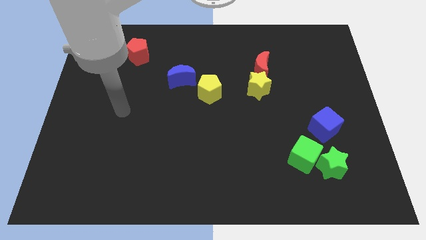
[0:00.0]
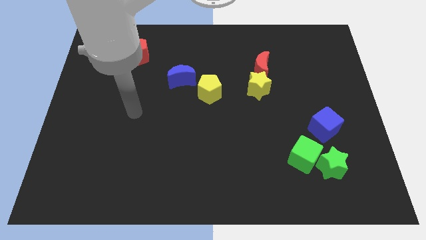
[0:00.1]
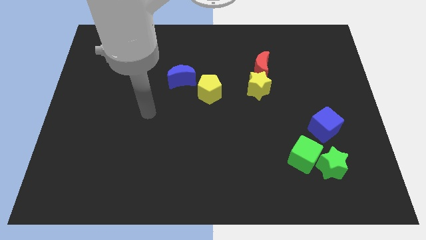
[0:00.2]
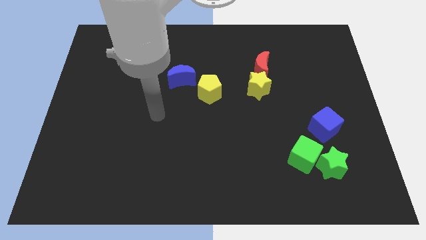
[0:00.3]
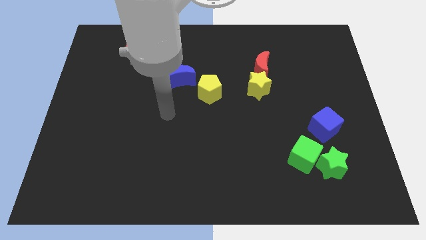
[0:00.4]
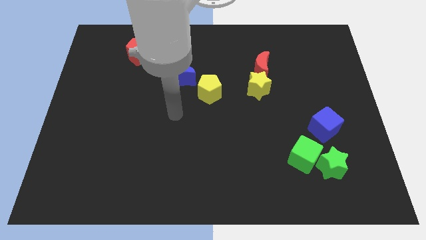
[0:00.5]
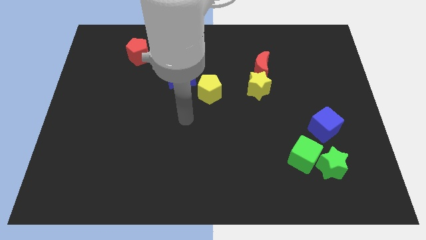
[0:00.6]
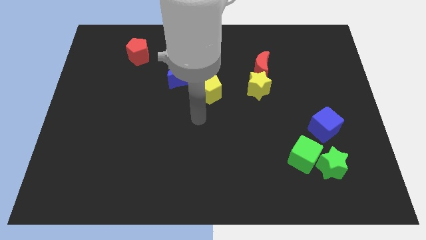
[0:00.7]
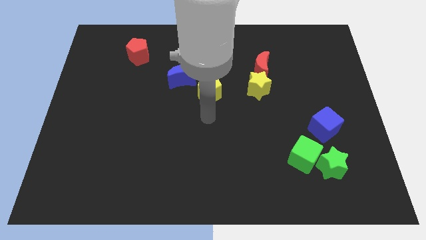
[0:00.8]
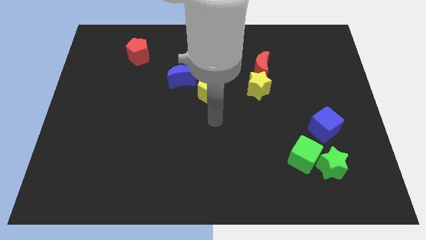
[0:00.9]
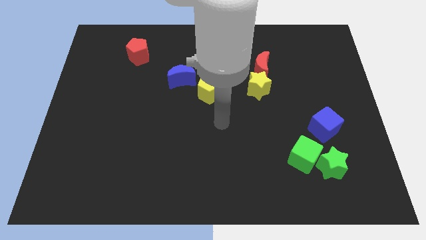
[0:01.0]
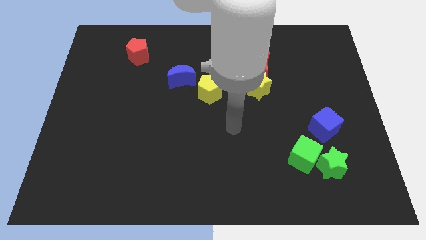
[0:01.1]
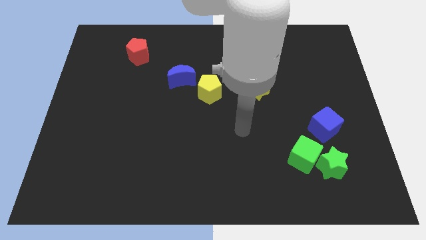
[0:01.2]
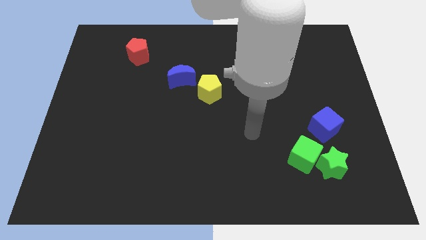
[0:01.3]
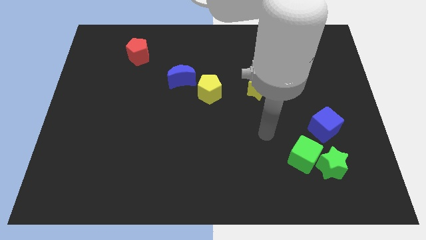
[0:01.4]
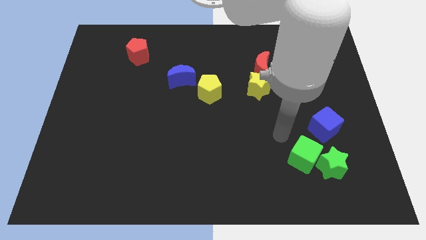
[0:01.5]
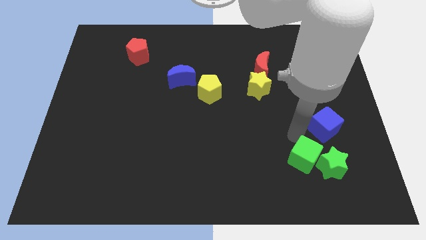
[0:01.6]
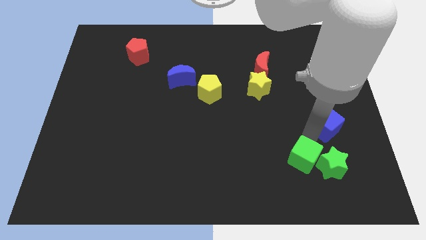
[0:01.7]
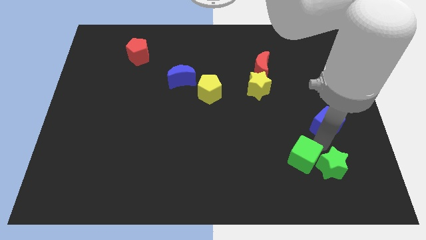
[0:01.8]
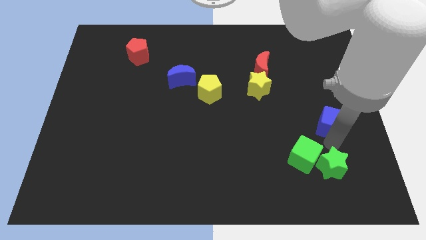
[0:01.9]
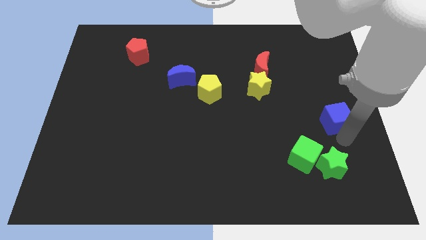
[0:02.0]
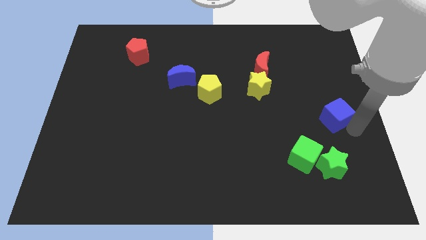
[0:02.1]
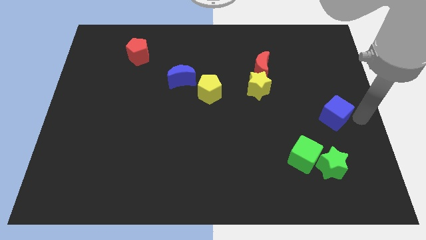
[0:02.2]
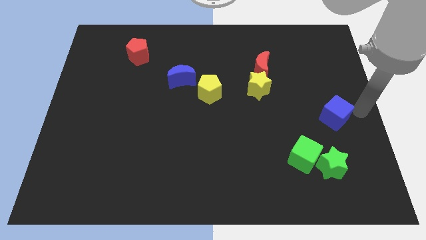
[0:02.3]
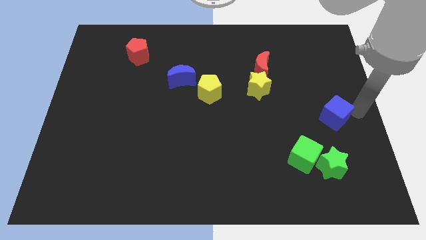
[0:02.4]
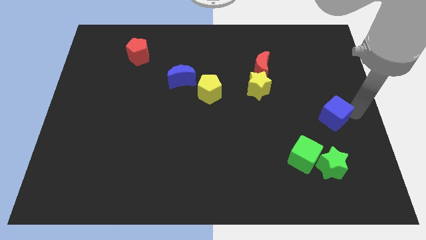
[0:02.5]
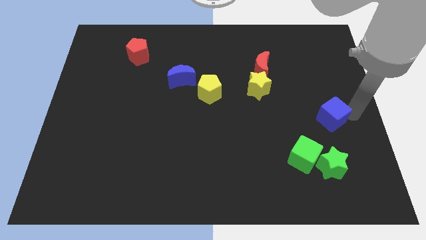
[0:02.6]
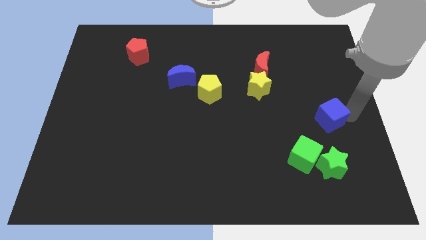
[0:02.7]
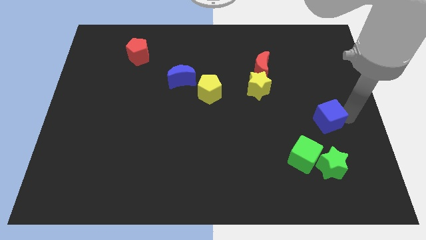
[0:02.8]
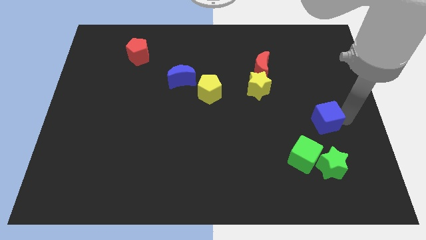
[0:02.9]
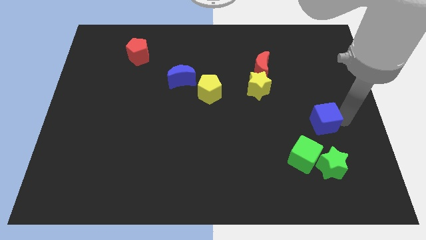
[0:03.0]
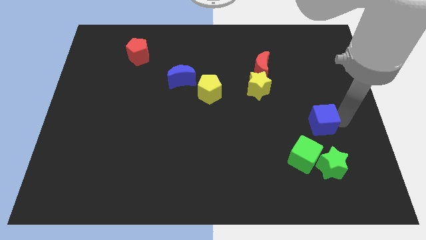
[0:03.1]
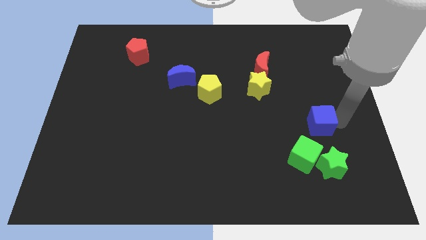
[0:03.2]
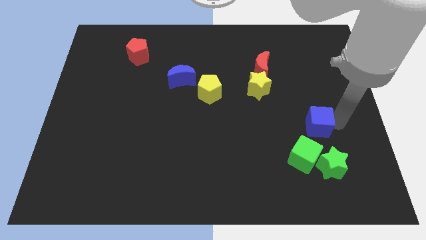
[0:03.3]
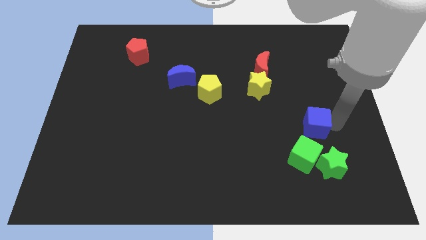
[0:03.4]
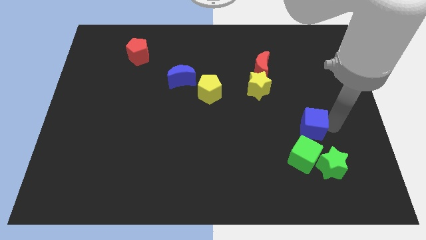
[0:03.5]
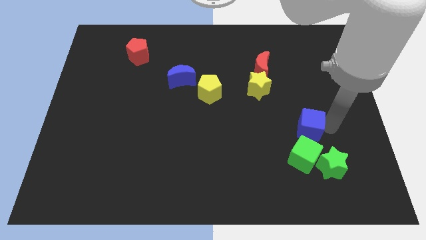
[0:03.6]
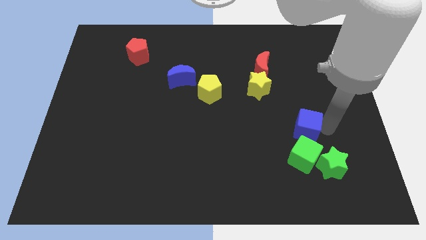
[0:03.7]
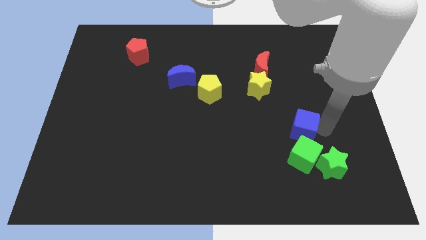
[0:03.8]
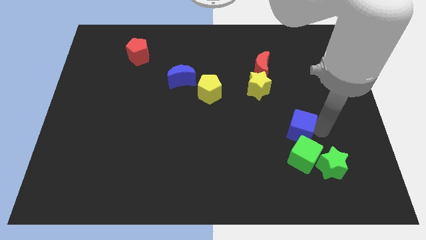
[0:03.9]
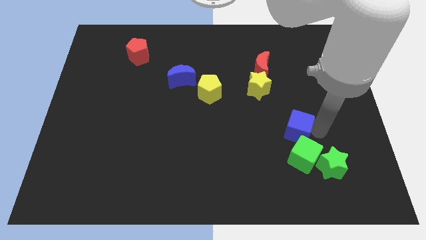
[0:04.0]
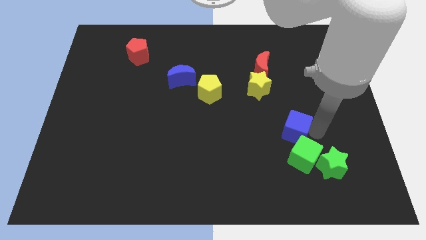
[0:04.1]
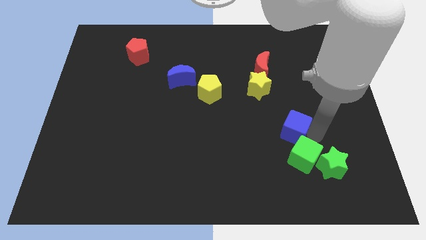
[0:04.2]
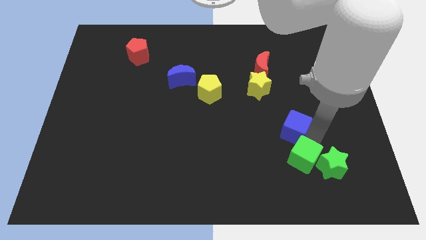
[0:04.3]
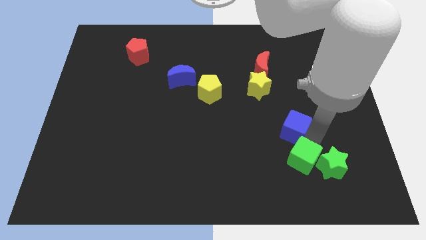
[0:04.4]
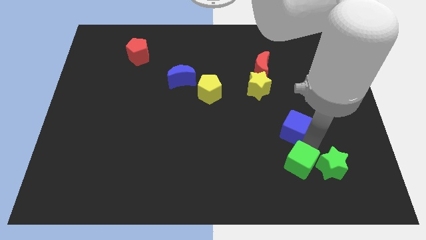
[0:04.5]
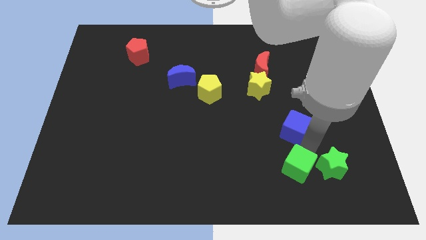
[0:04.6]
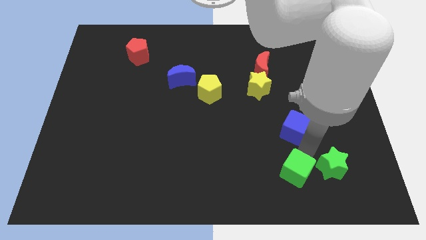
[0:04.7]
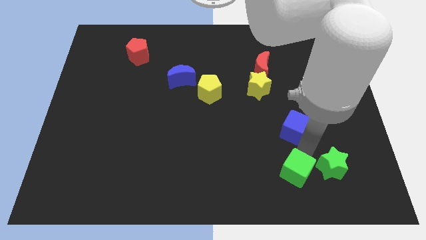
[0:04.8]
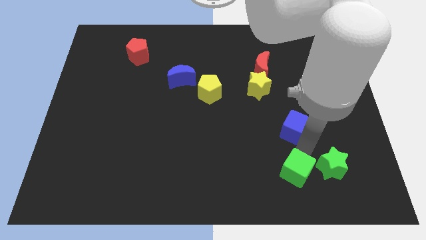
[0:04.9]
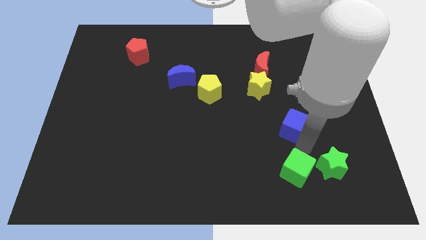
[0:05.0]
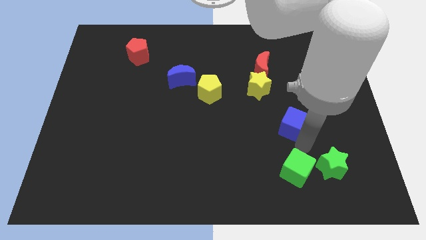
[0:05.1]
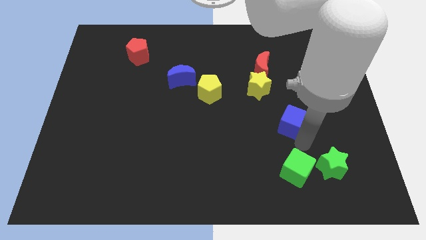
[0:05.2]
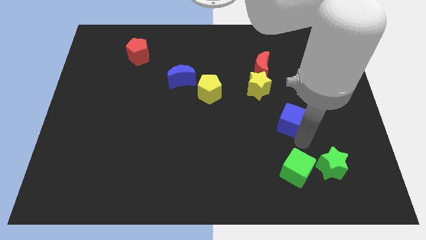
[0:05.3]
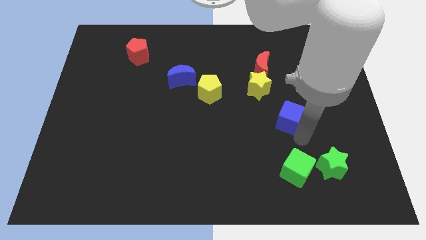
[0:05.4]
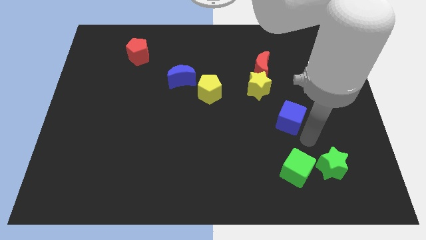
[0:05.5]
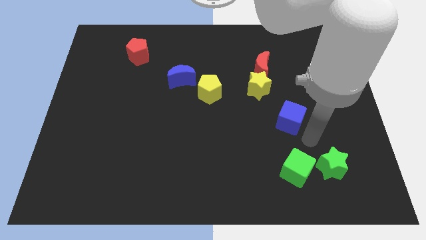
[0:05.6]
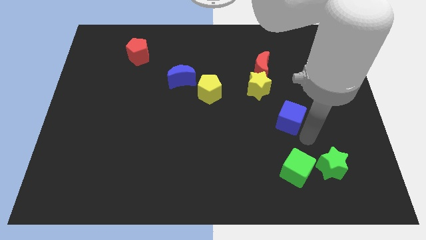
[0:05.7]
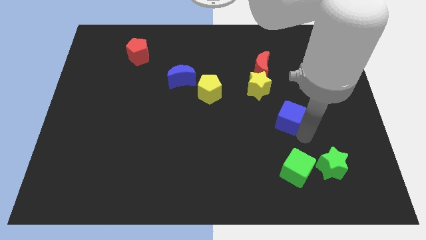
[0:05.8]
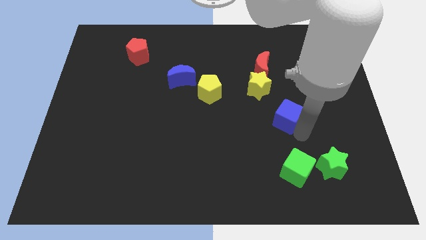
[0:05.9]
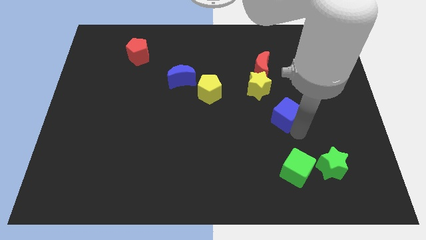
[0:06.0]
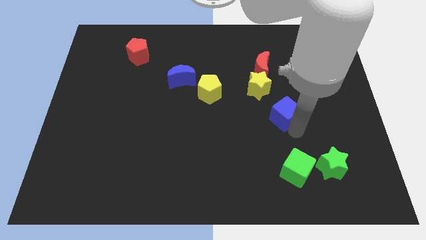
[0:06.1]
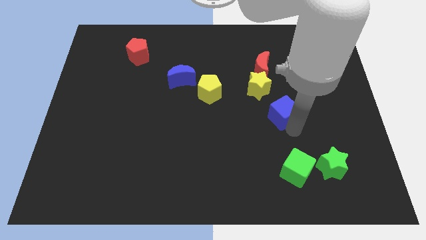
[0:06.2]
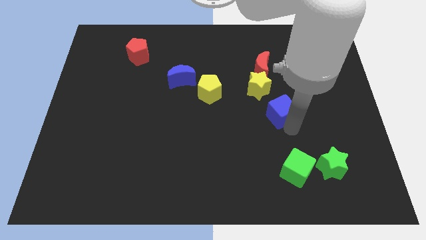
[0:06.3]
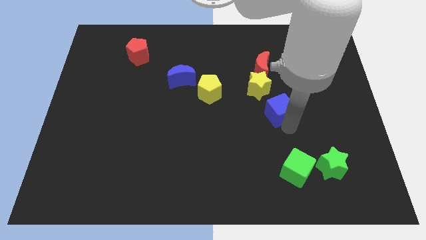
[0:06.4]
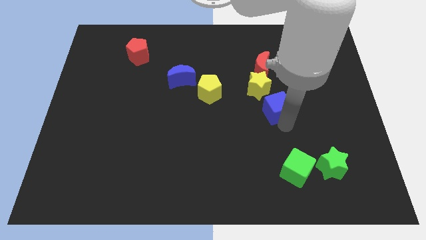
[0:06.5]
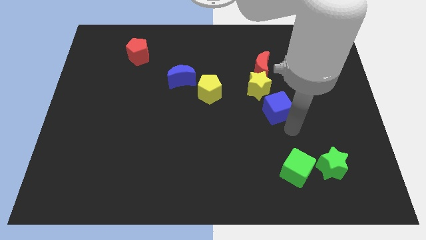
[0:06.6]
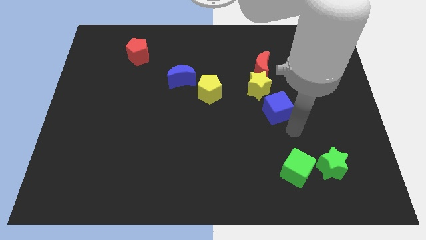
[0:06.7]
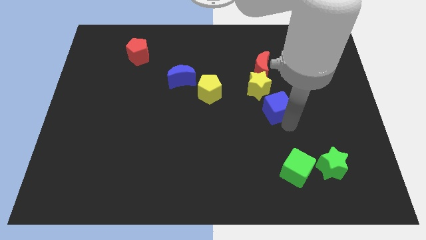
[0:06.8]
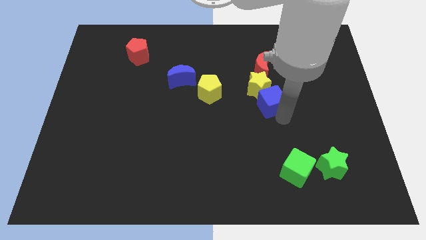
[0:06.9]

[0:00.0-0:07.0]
slide the blue cube towards the yellow star
